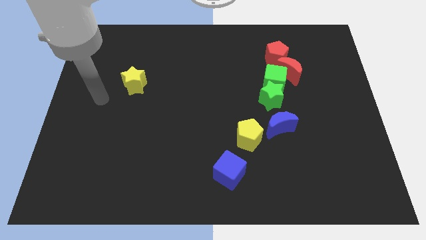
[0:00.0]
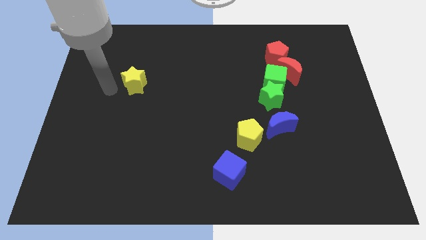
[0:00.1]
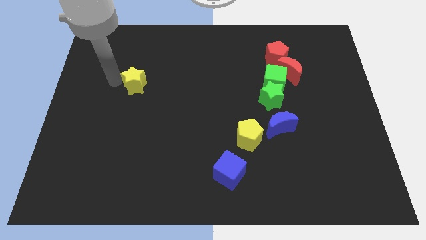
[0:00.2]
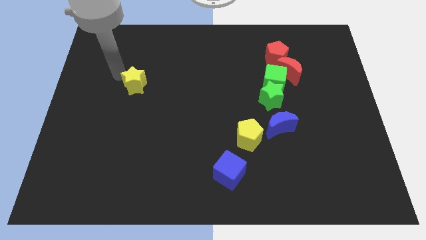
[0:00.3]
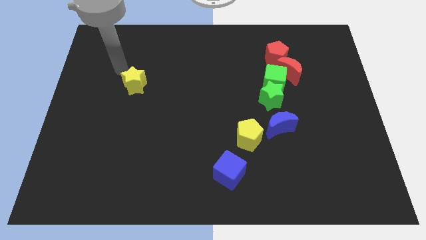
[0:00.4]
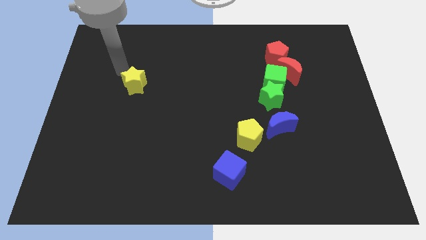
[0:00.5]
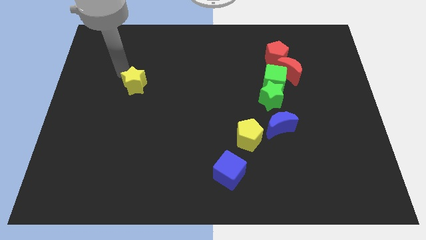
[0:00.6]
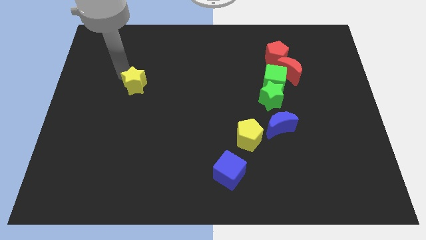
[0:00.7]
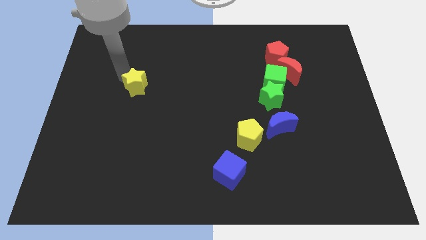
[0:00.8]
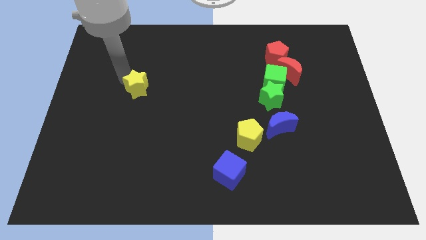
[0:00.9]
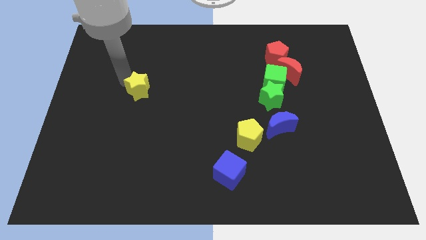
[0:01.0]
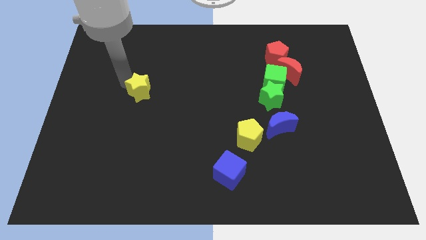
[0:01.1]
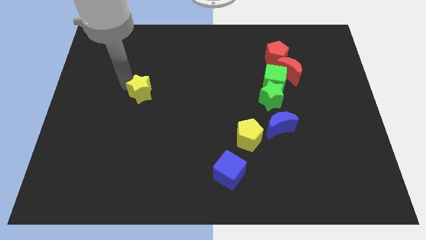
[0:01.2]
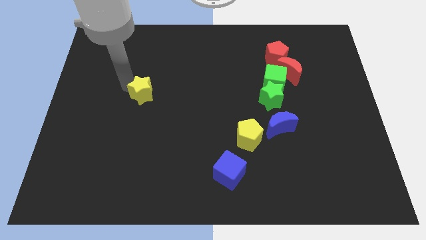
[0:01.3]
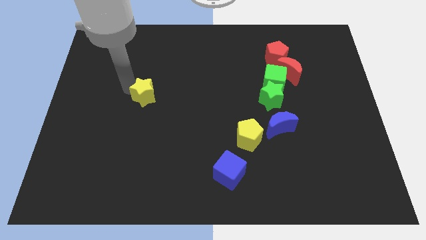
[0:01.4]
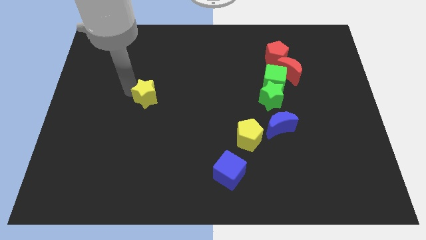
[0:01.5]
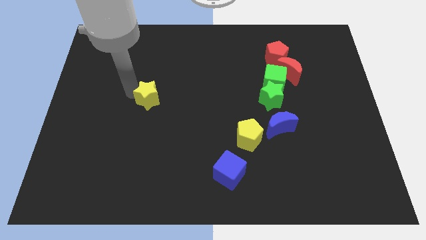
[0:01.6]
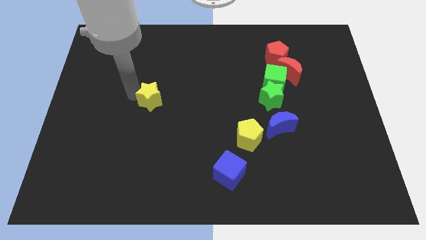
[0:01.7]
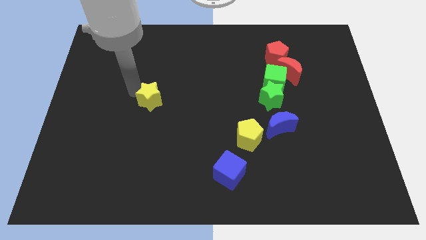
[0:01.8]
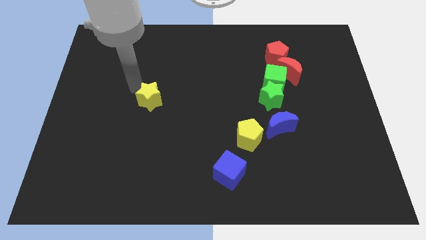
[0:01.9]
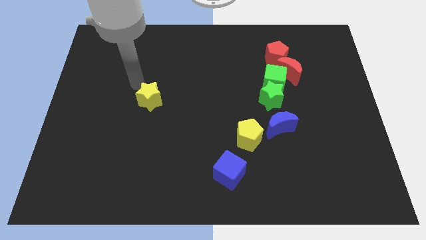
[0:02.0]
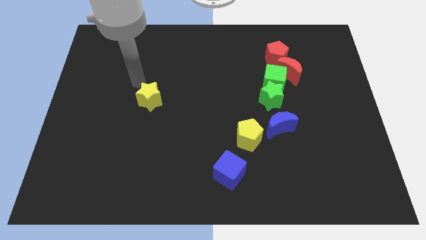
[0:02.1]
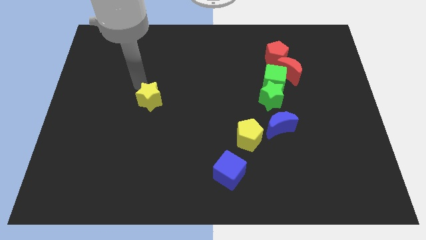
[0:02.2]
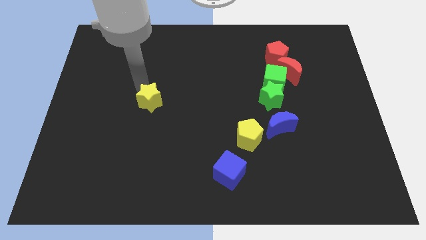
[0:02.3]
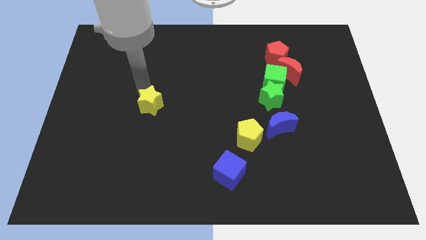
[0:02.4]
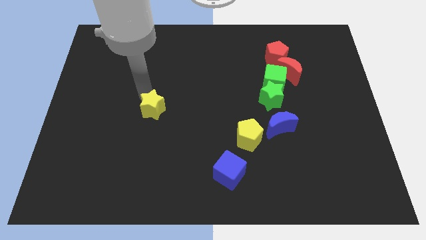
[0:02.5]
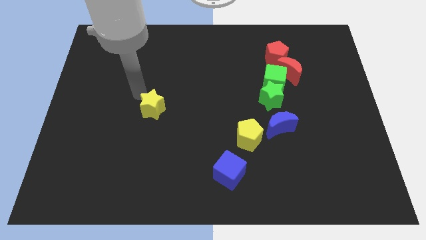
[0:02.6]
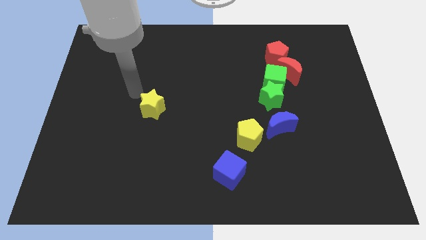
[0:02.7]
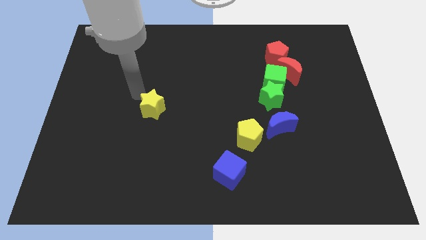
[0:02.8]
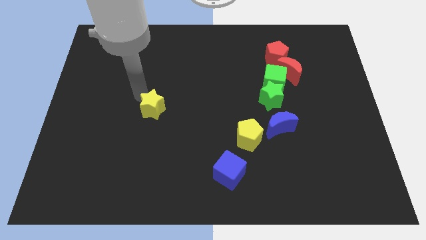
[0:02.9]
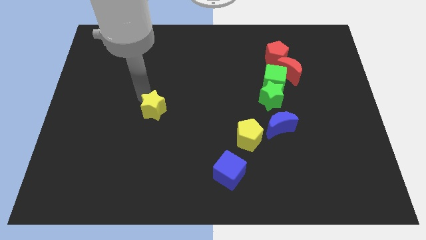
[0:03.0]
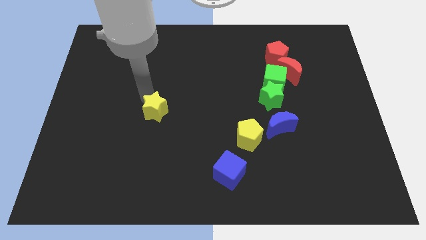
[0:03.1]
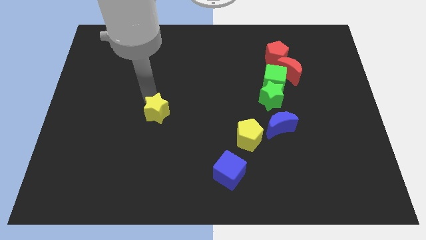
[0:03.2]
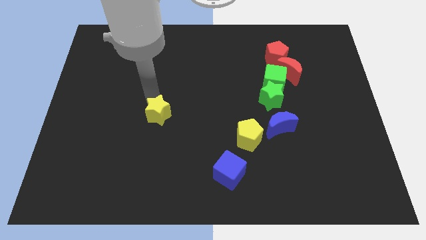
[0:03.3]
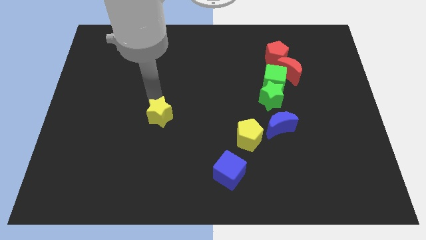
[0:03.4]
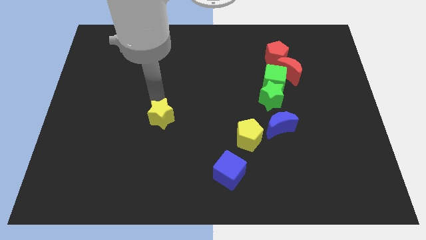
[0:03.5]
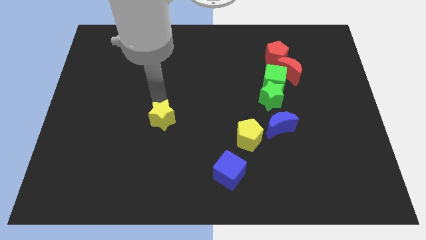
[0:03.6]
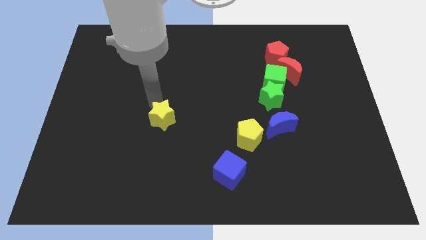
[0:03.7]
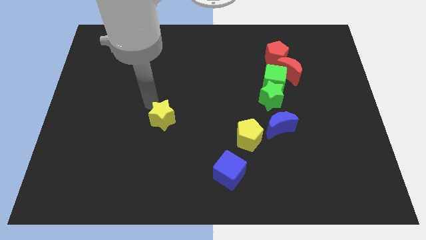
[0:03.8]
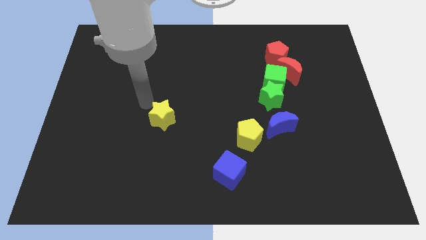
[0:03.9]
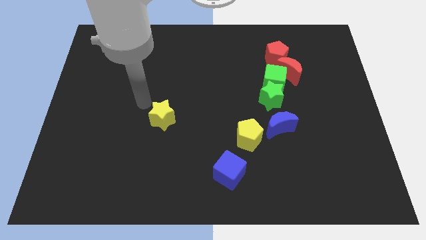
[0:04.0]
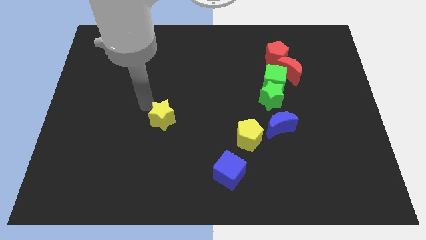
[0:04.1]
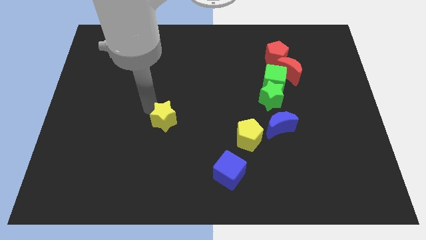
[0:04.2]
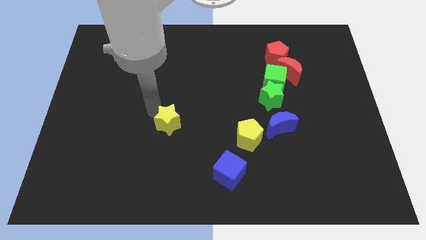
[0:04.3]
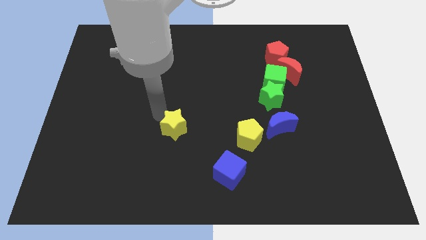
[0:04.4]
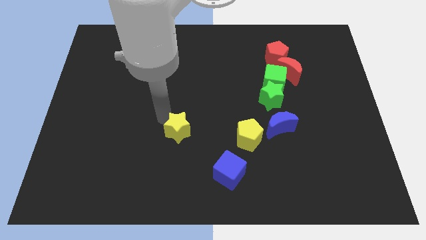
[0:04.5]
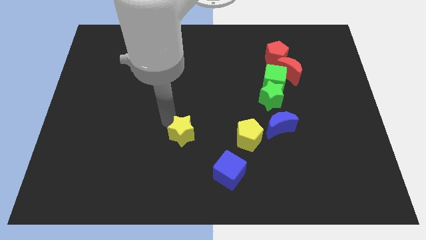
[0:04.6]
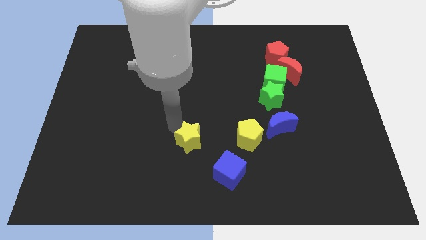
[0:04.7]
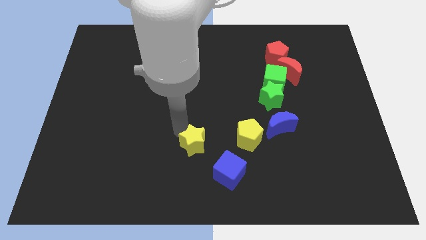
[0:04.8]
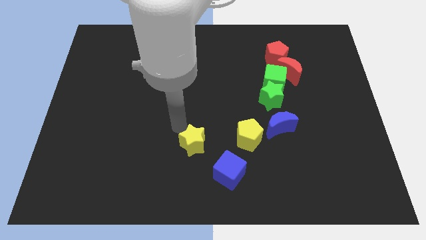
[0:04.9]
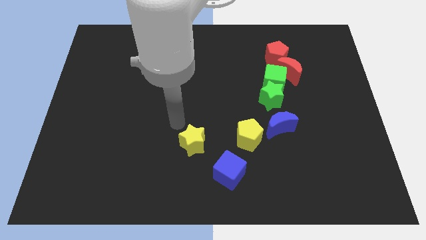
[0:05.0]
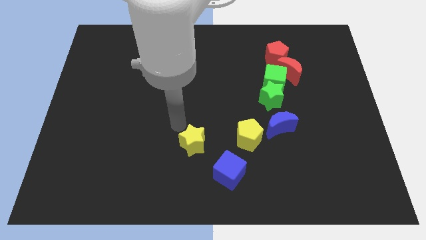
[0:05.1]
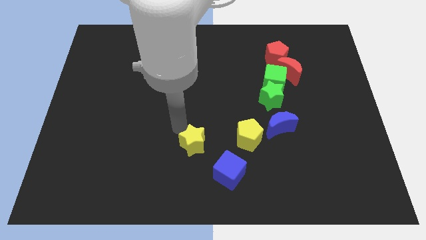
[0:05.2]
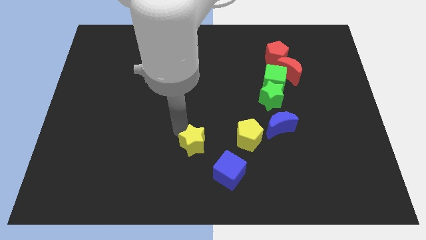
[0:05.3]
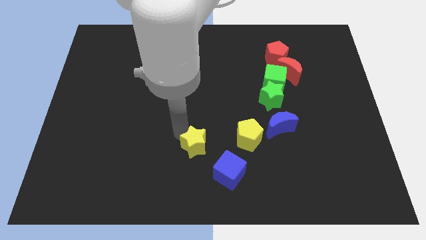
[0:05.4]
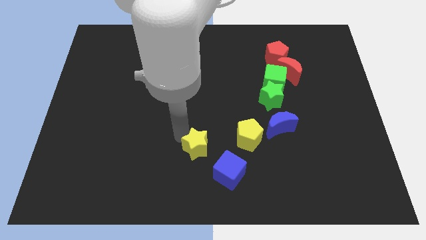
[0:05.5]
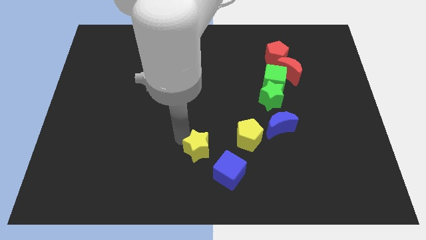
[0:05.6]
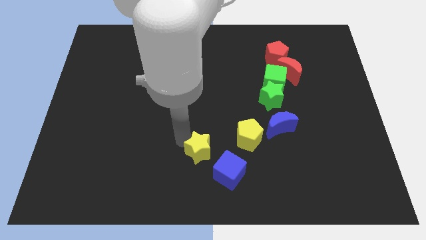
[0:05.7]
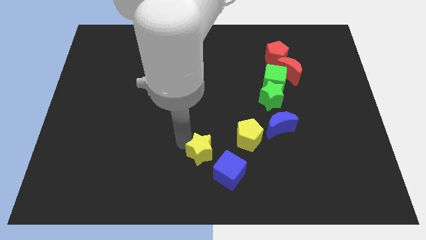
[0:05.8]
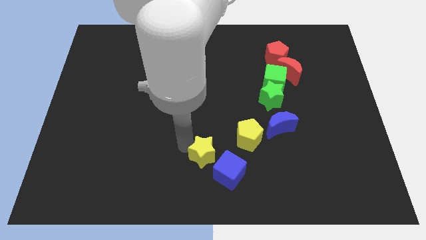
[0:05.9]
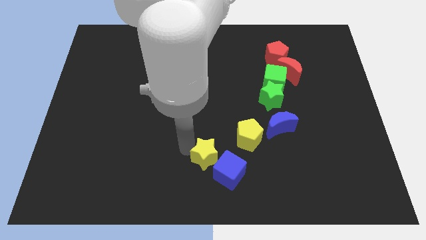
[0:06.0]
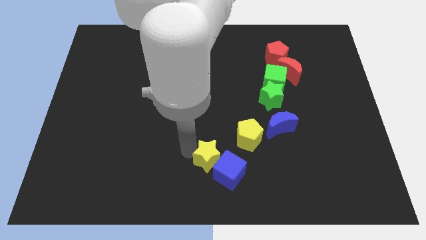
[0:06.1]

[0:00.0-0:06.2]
move the yellow star towards the blue cube

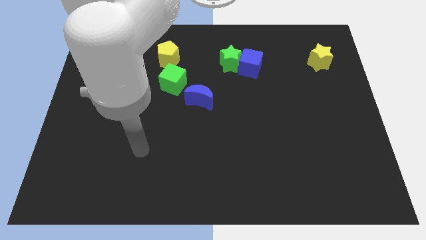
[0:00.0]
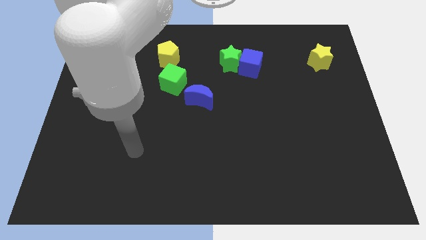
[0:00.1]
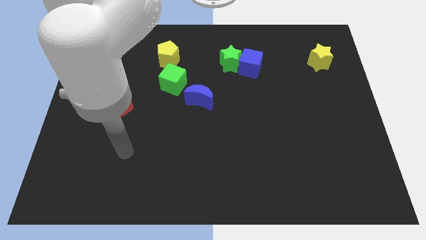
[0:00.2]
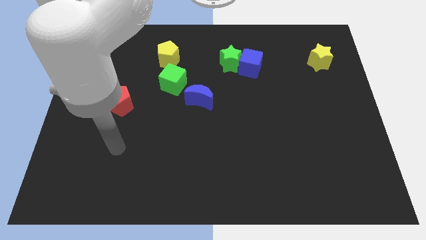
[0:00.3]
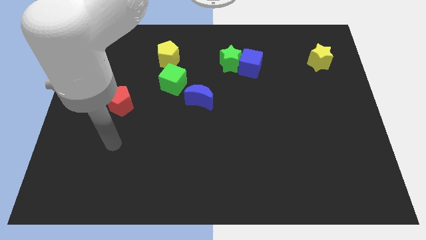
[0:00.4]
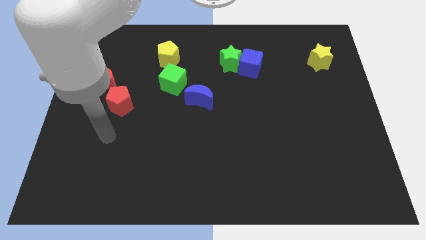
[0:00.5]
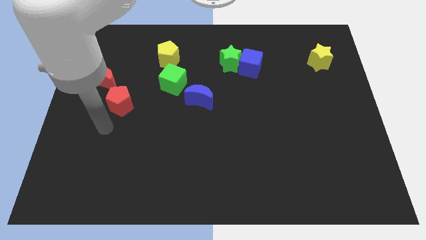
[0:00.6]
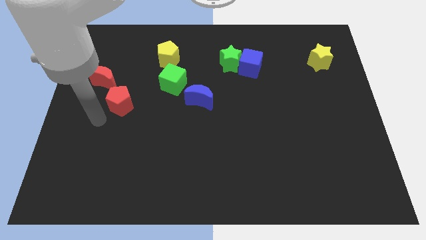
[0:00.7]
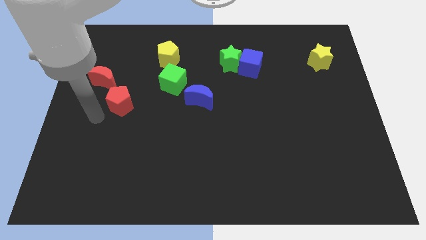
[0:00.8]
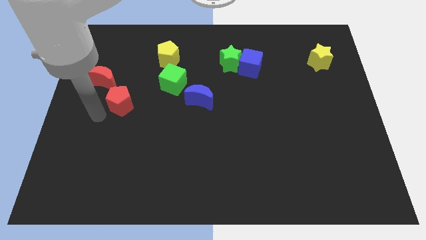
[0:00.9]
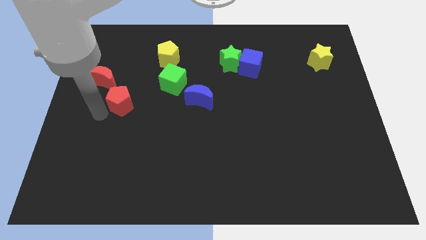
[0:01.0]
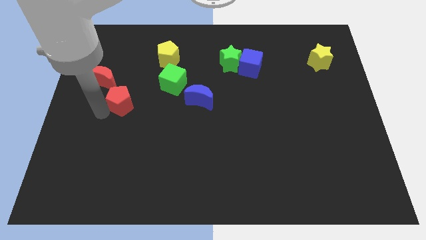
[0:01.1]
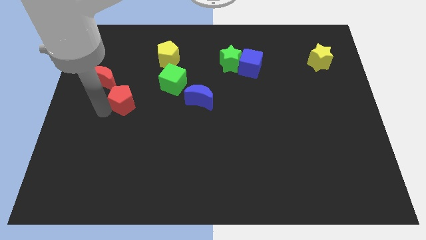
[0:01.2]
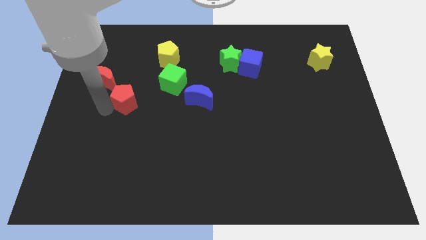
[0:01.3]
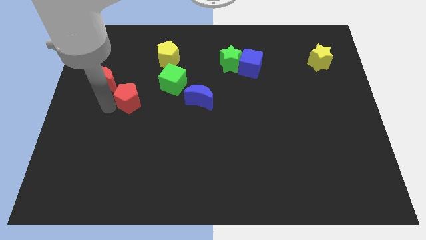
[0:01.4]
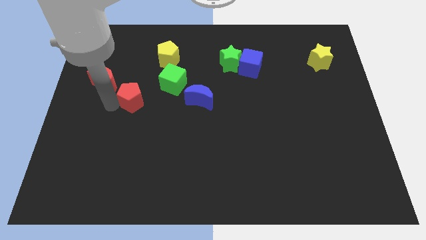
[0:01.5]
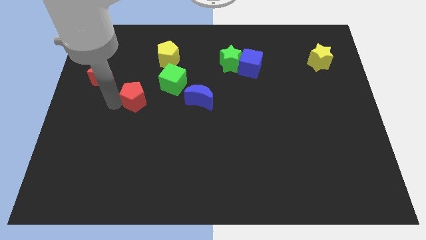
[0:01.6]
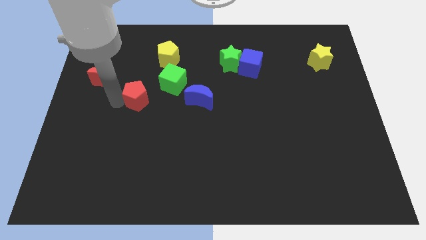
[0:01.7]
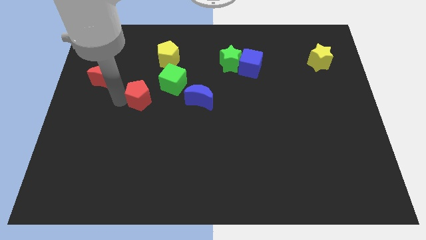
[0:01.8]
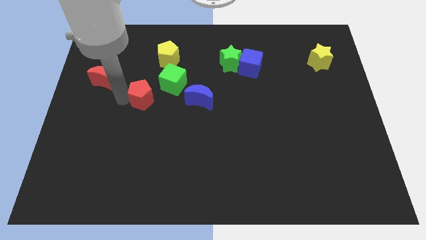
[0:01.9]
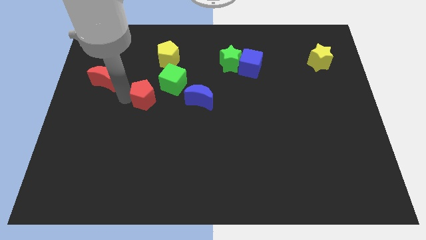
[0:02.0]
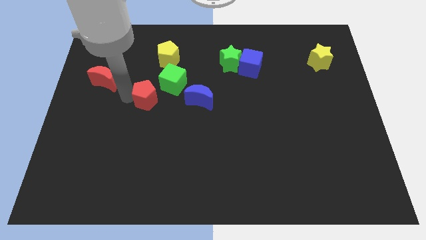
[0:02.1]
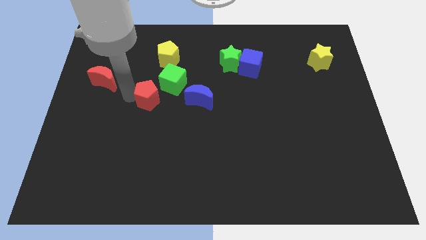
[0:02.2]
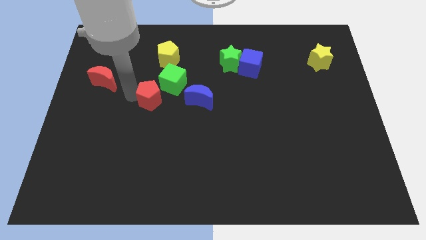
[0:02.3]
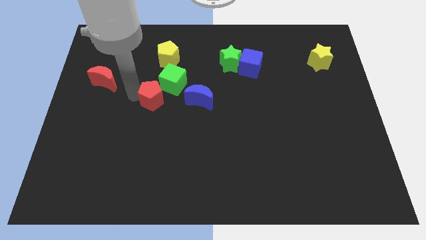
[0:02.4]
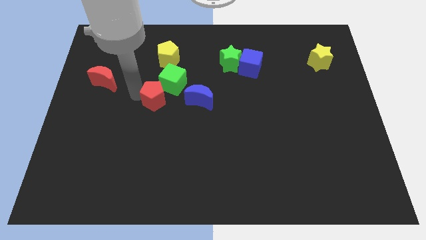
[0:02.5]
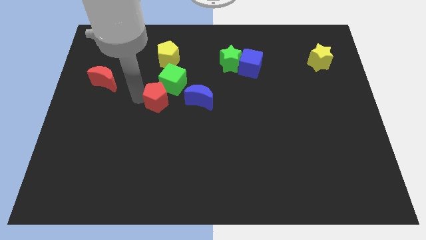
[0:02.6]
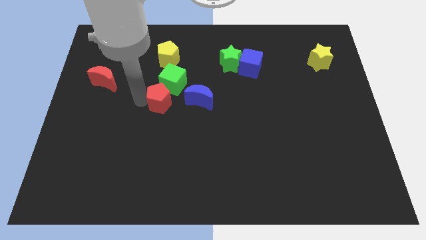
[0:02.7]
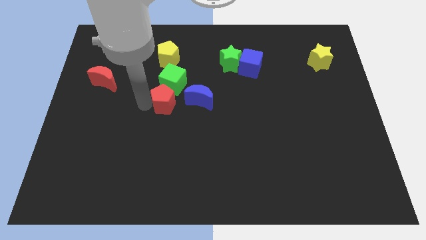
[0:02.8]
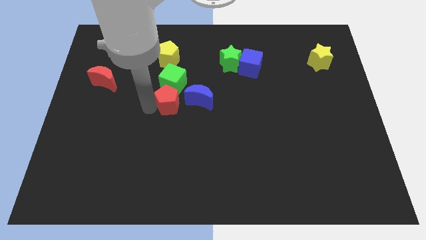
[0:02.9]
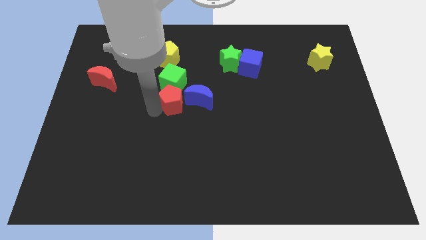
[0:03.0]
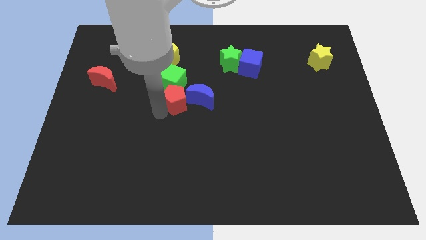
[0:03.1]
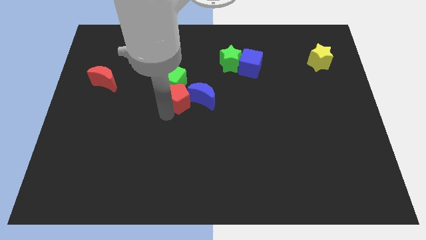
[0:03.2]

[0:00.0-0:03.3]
slide the red pentagon close to the green cube
